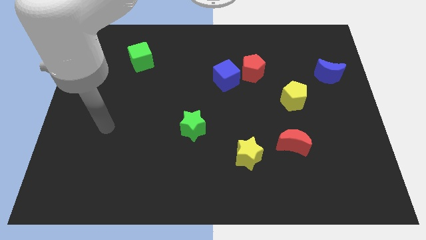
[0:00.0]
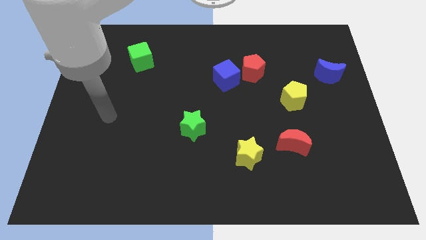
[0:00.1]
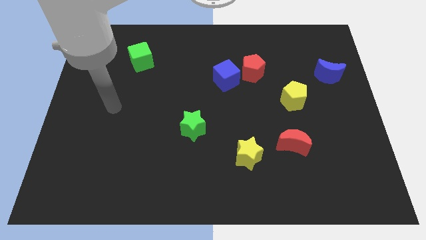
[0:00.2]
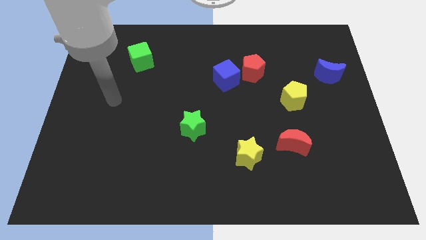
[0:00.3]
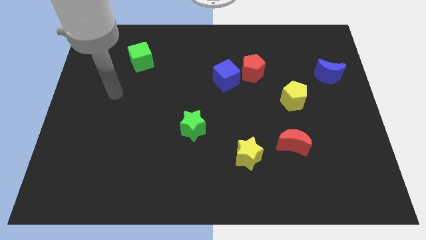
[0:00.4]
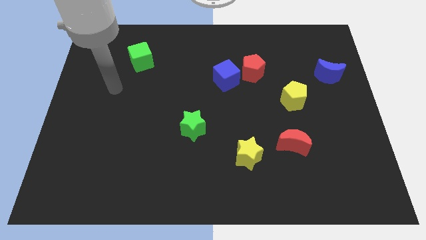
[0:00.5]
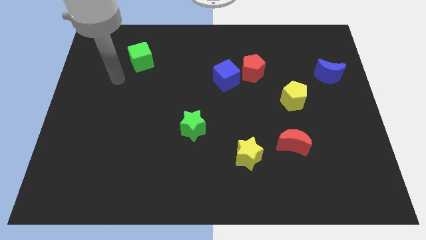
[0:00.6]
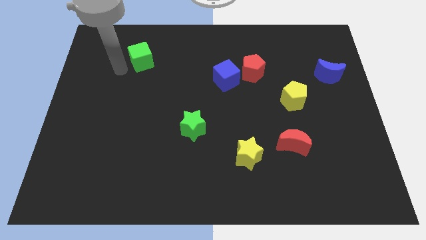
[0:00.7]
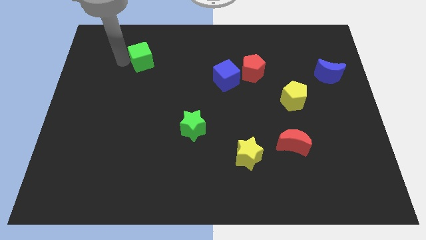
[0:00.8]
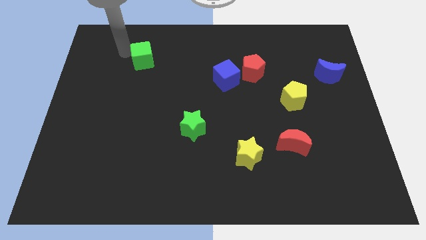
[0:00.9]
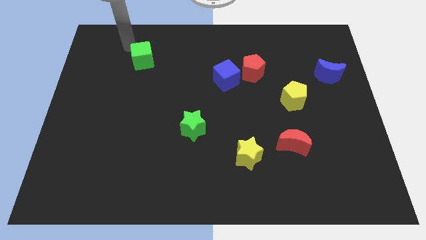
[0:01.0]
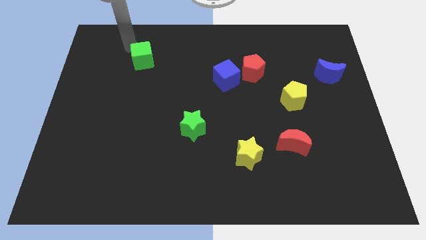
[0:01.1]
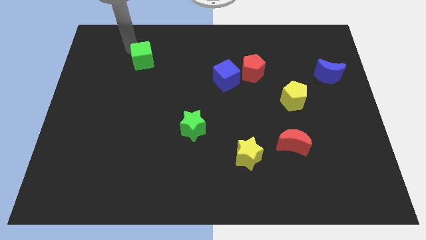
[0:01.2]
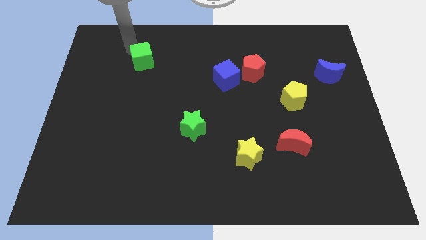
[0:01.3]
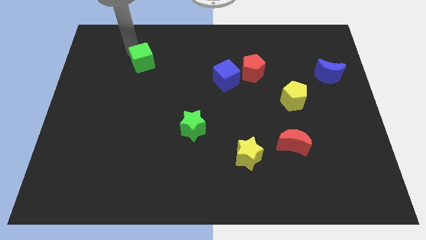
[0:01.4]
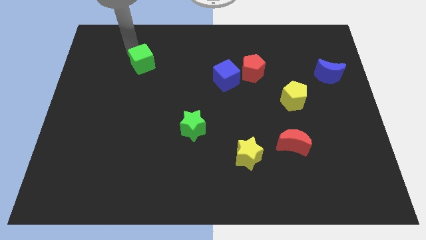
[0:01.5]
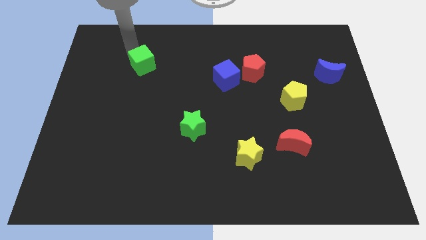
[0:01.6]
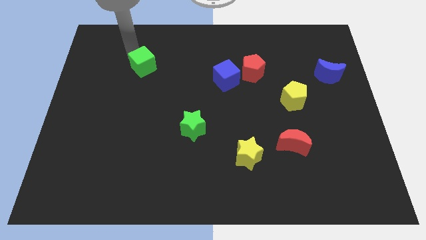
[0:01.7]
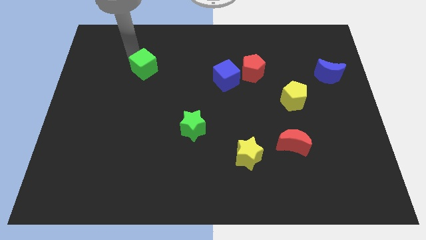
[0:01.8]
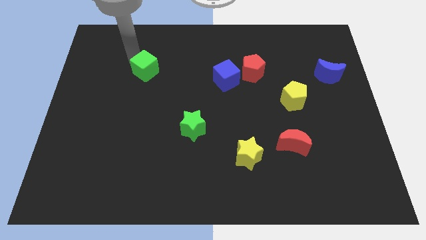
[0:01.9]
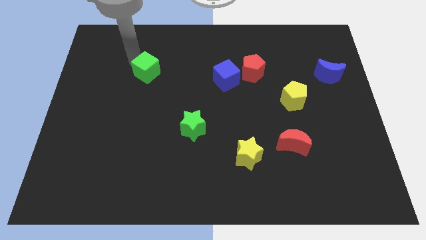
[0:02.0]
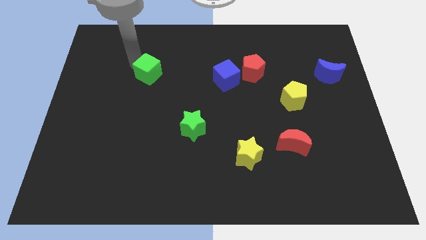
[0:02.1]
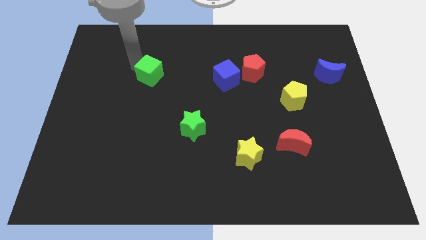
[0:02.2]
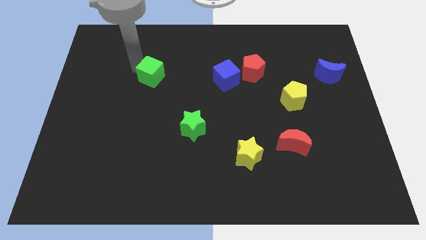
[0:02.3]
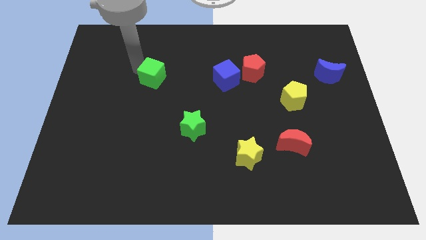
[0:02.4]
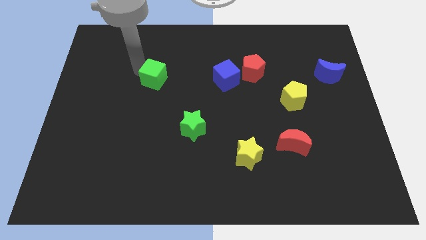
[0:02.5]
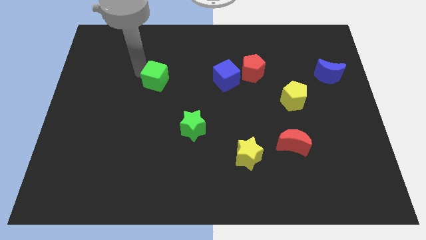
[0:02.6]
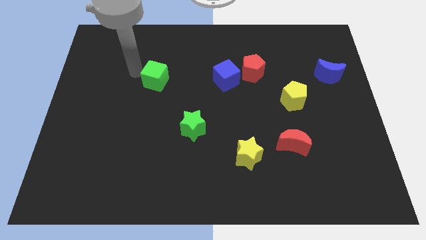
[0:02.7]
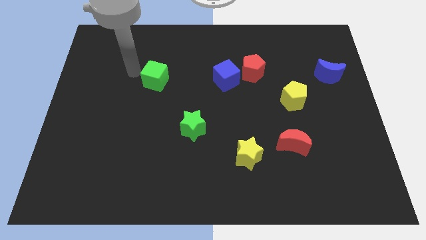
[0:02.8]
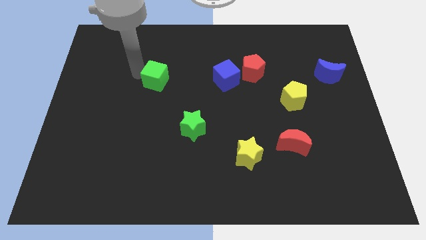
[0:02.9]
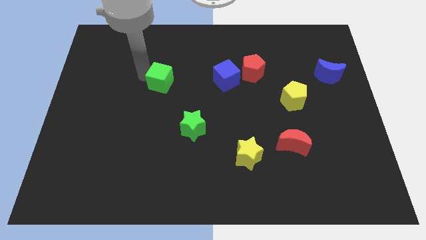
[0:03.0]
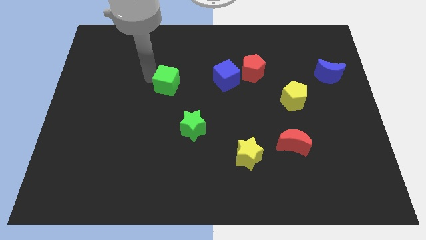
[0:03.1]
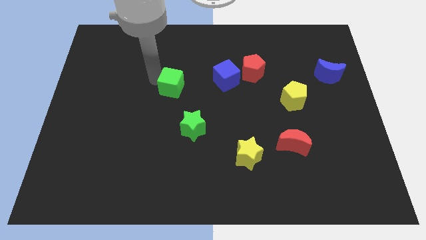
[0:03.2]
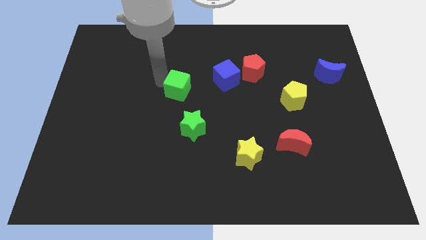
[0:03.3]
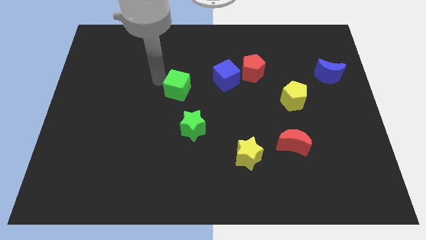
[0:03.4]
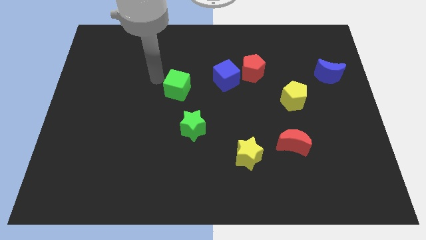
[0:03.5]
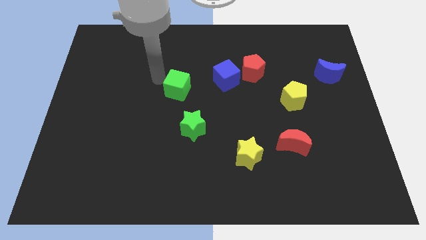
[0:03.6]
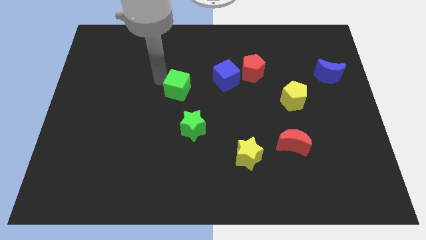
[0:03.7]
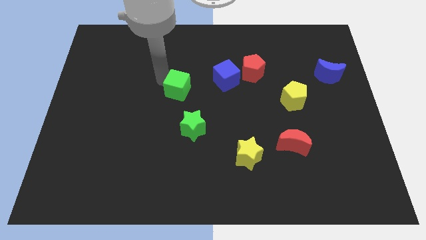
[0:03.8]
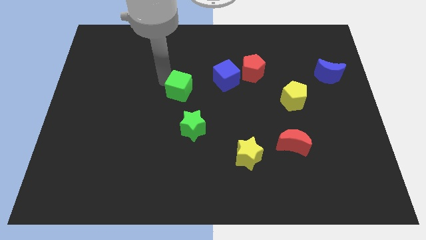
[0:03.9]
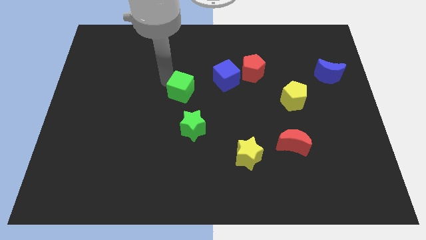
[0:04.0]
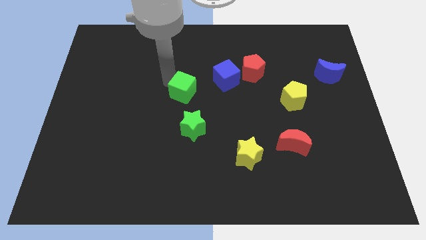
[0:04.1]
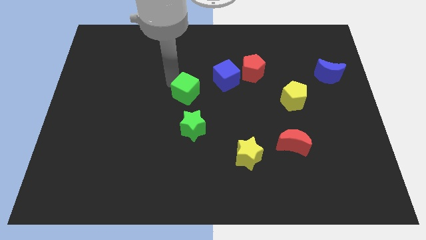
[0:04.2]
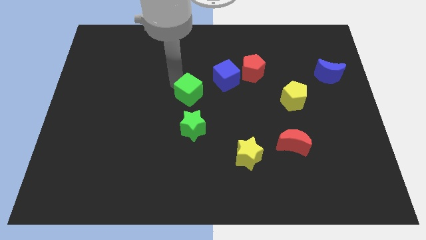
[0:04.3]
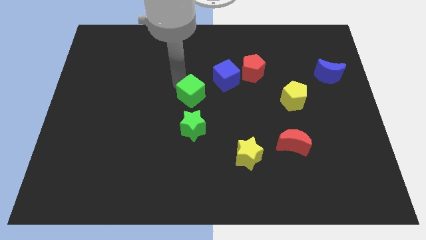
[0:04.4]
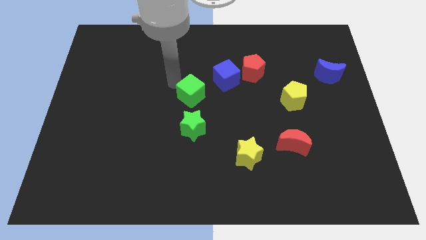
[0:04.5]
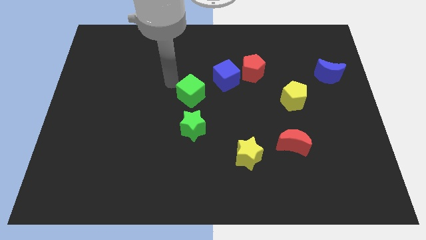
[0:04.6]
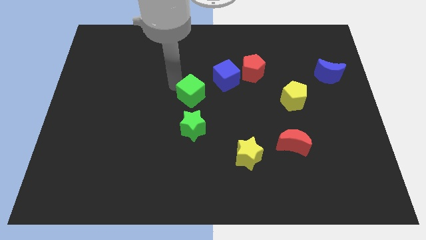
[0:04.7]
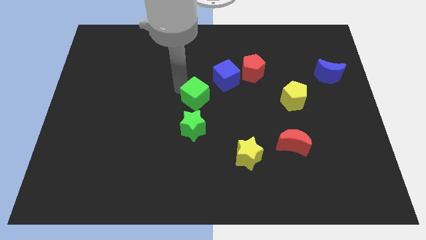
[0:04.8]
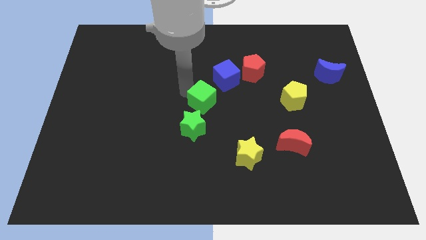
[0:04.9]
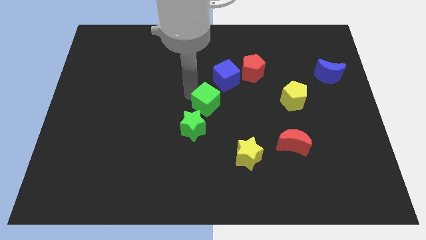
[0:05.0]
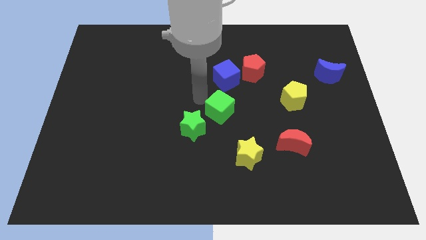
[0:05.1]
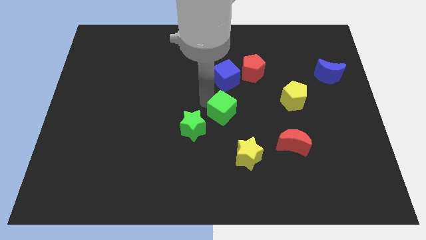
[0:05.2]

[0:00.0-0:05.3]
slide the green cube right of the green star

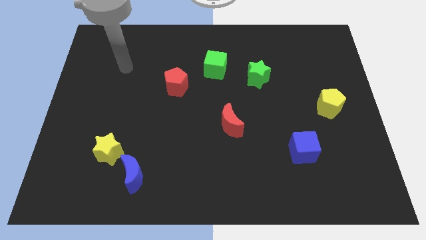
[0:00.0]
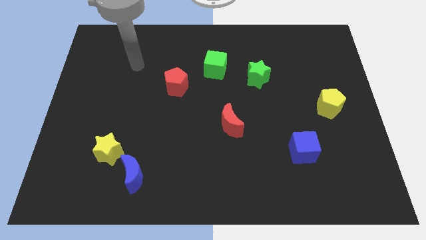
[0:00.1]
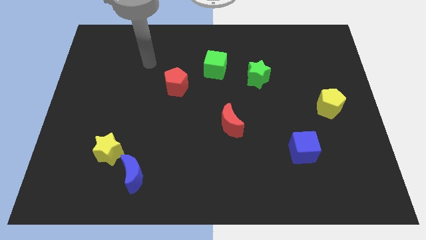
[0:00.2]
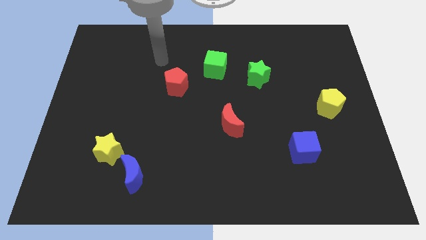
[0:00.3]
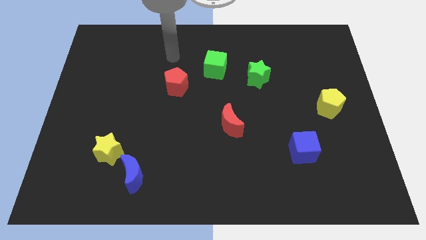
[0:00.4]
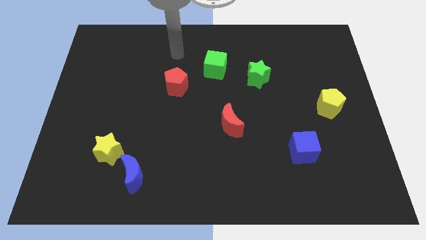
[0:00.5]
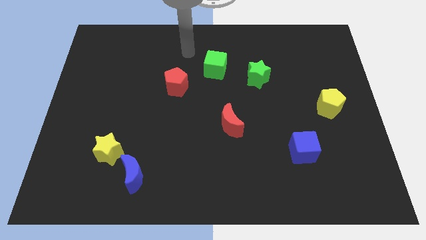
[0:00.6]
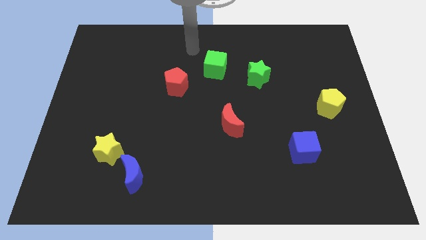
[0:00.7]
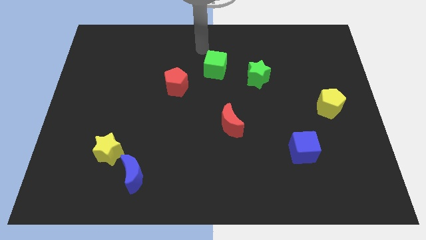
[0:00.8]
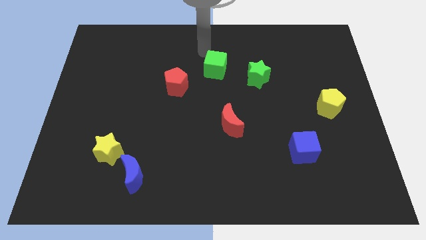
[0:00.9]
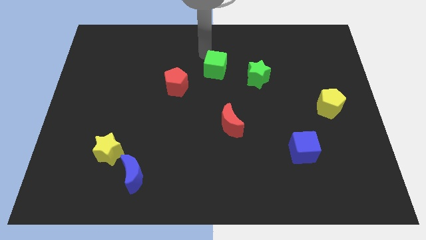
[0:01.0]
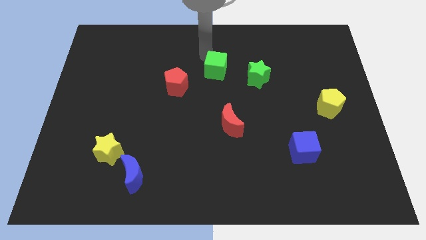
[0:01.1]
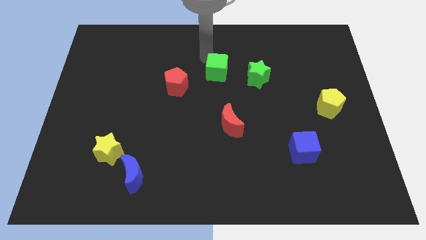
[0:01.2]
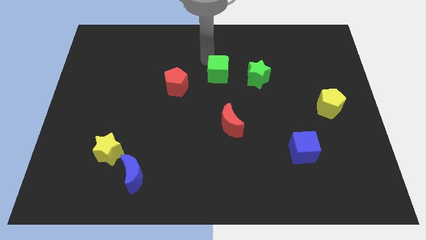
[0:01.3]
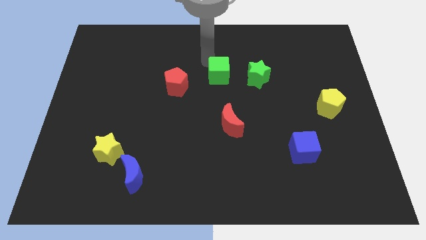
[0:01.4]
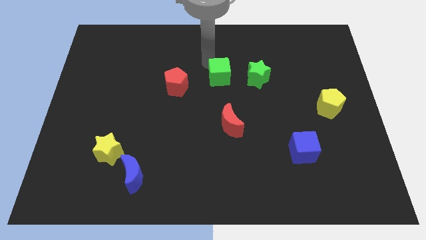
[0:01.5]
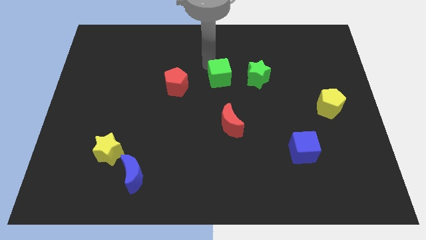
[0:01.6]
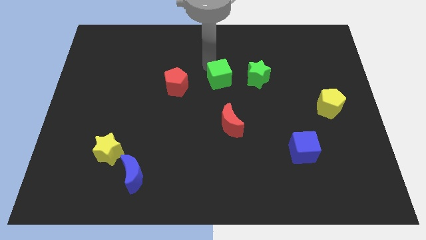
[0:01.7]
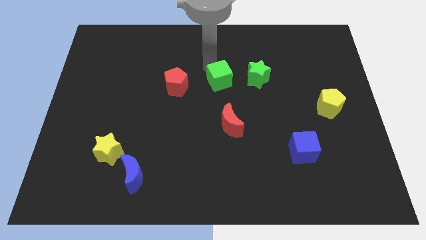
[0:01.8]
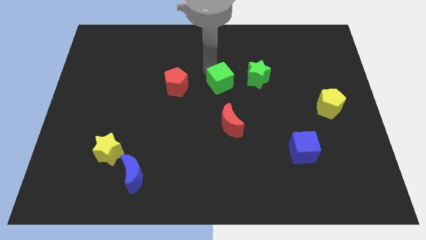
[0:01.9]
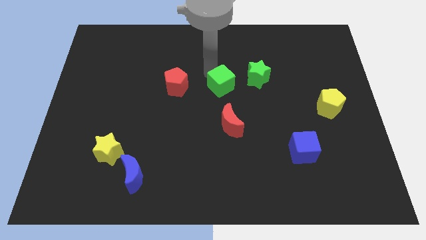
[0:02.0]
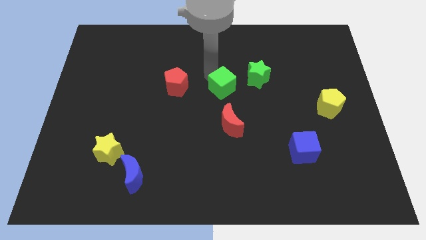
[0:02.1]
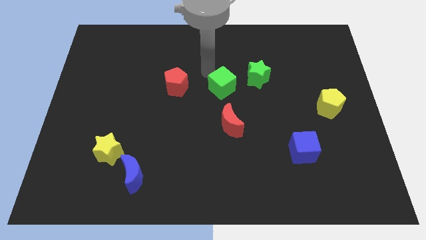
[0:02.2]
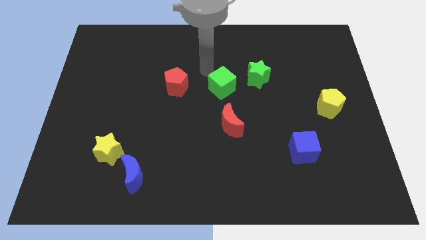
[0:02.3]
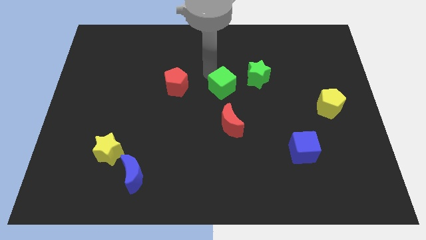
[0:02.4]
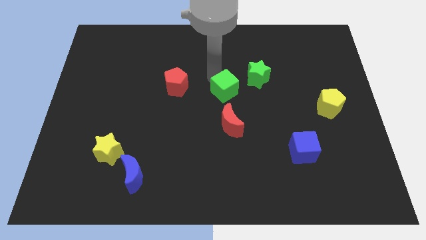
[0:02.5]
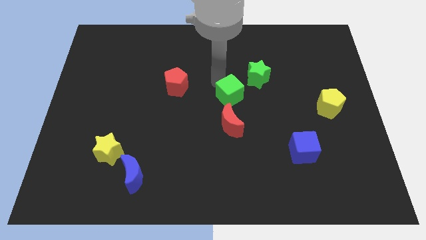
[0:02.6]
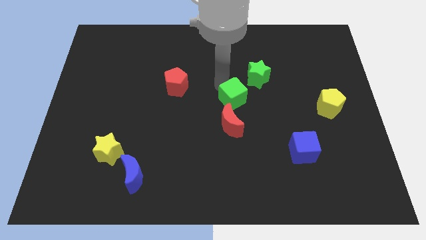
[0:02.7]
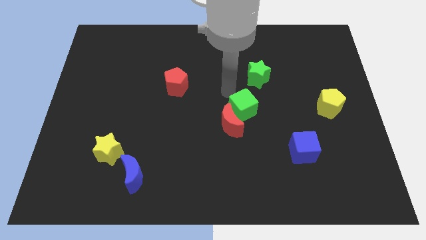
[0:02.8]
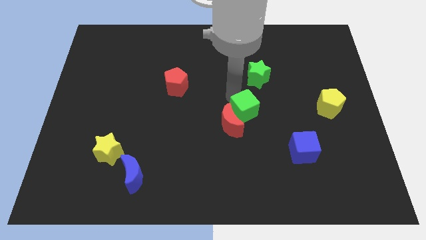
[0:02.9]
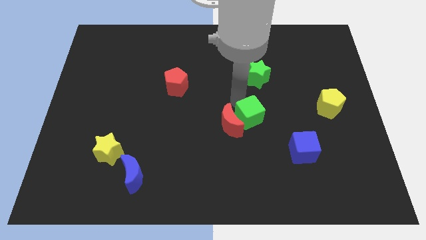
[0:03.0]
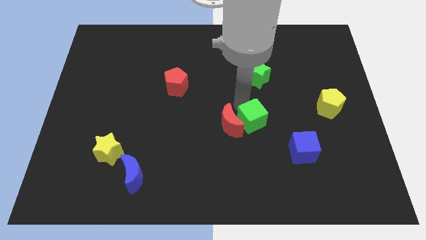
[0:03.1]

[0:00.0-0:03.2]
put the green cube diagonally down and to the right of the red moon
